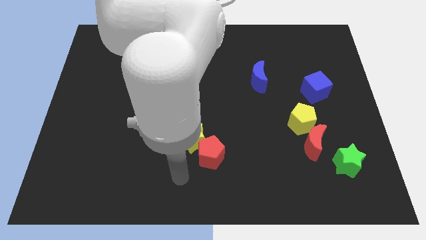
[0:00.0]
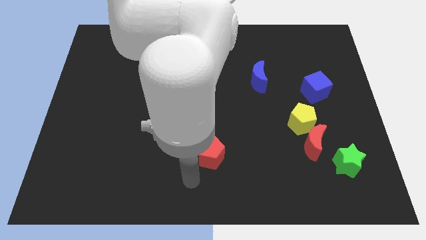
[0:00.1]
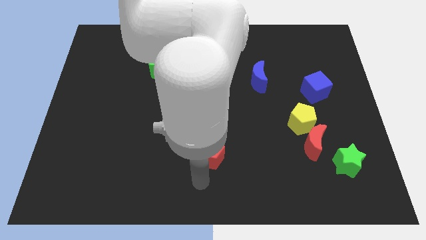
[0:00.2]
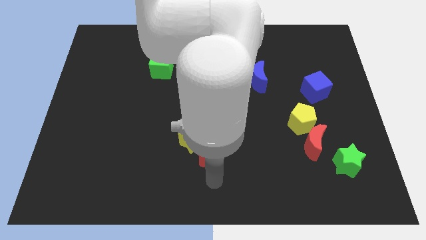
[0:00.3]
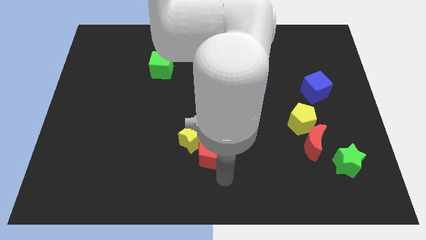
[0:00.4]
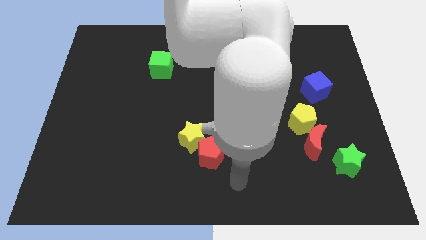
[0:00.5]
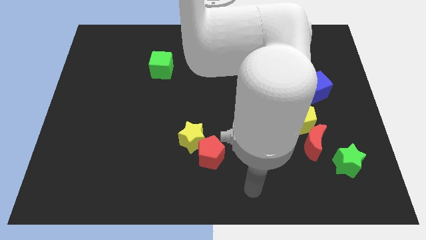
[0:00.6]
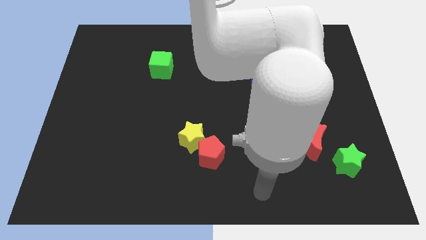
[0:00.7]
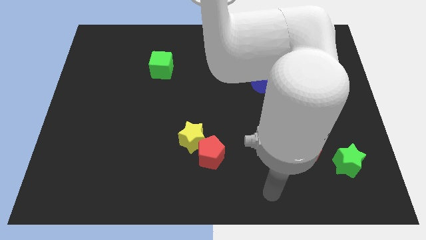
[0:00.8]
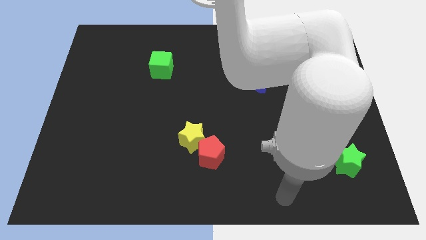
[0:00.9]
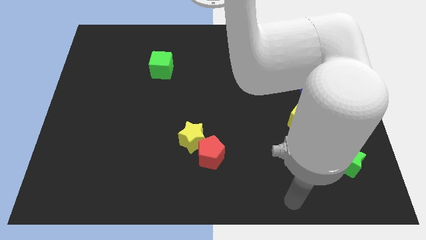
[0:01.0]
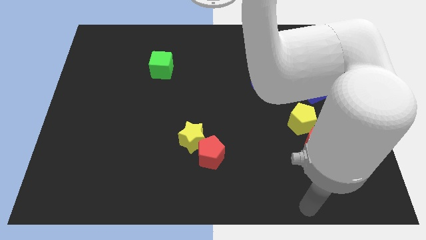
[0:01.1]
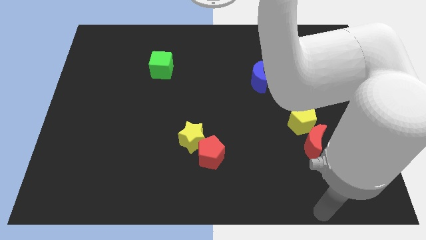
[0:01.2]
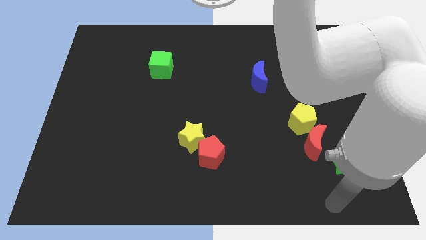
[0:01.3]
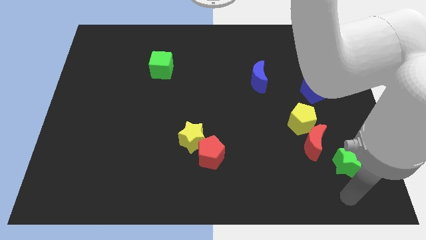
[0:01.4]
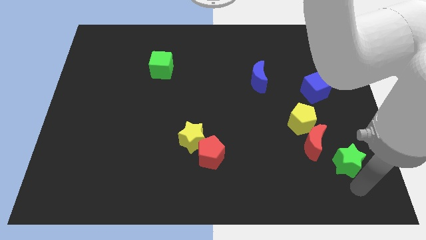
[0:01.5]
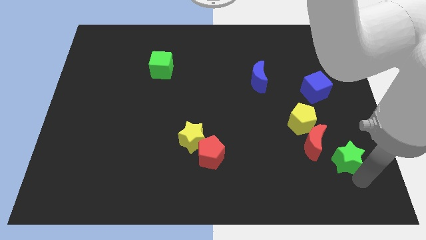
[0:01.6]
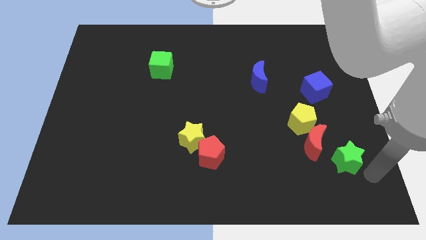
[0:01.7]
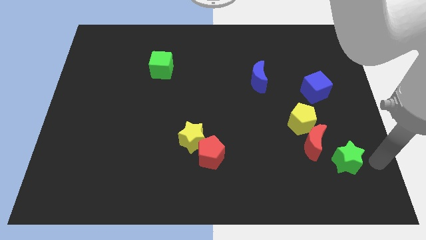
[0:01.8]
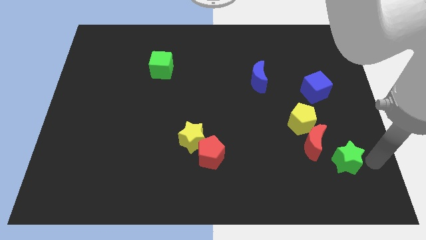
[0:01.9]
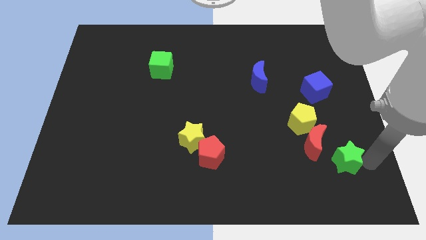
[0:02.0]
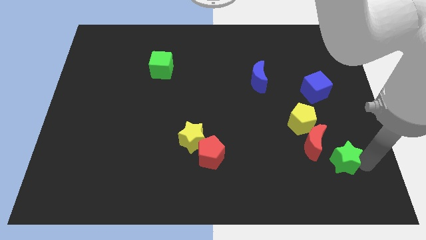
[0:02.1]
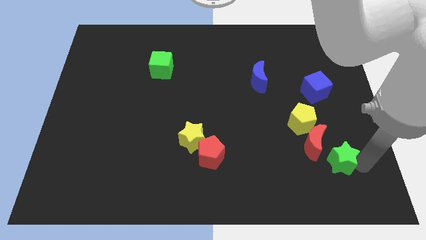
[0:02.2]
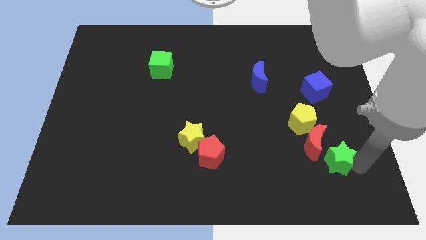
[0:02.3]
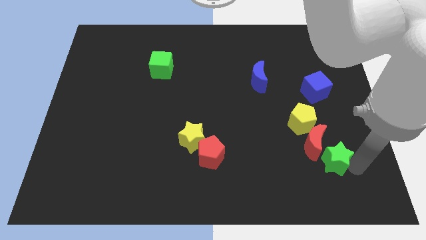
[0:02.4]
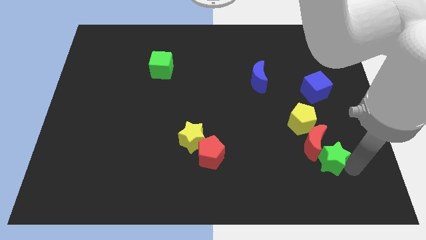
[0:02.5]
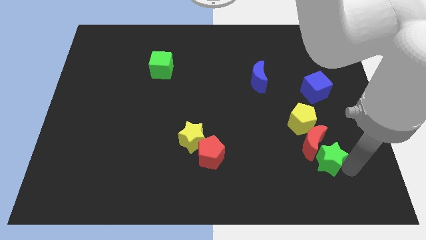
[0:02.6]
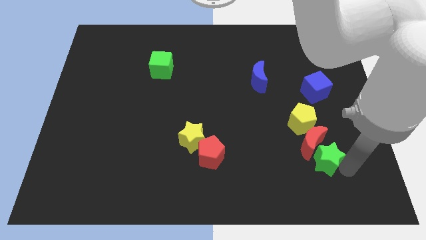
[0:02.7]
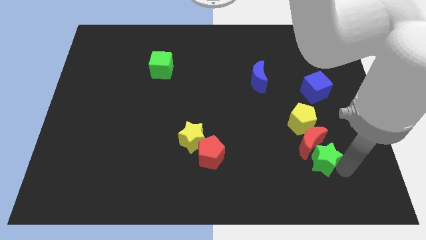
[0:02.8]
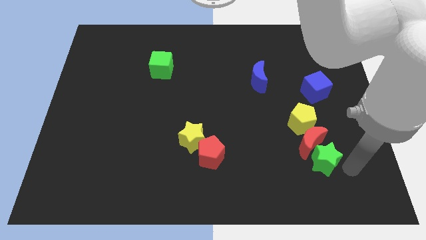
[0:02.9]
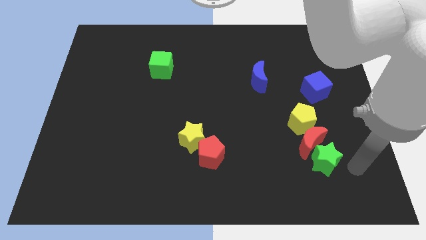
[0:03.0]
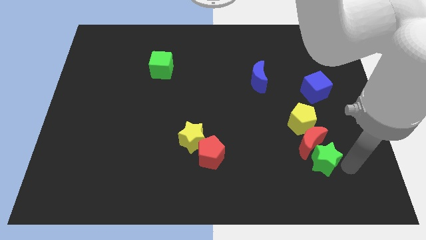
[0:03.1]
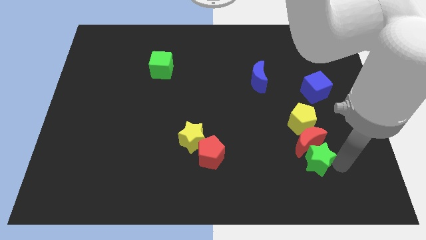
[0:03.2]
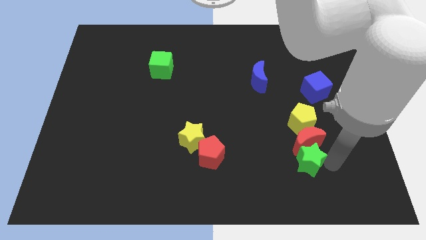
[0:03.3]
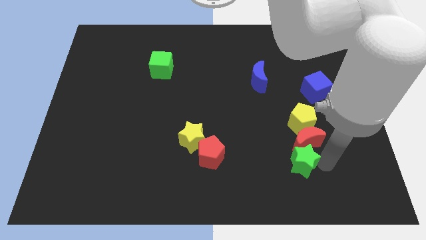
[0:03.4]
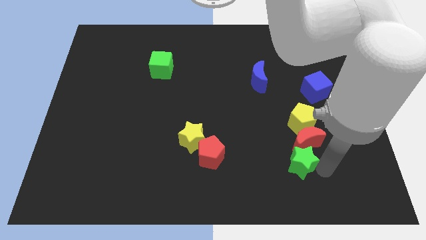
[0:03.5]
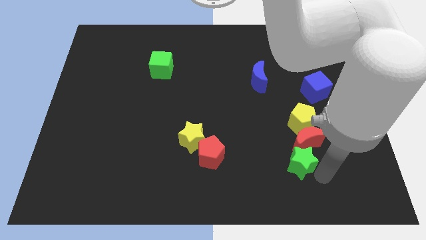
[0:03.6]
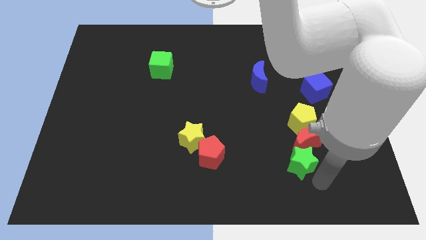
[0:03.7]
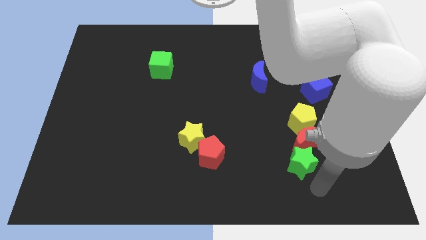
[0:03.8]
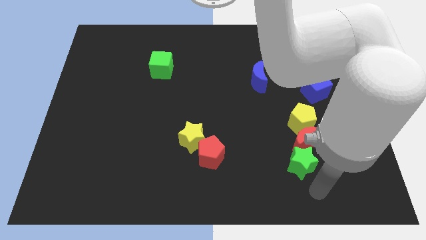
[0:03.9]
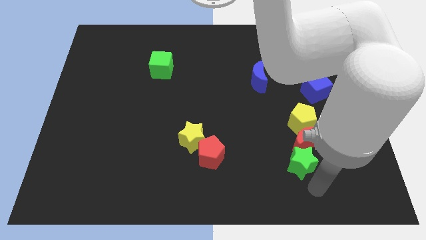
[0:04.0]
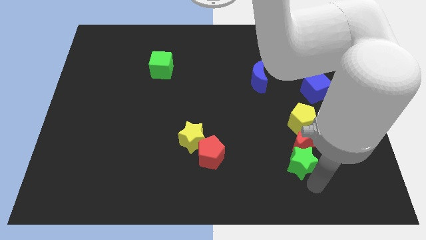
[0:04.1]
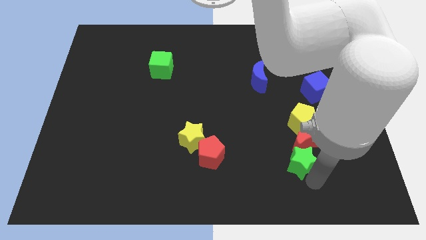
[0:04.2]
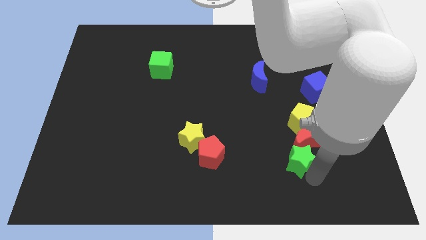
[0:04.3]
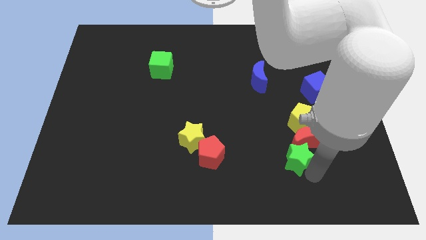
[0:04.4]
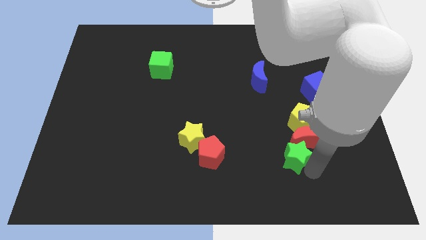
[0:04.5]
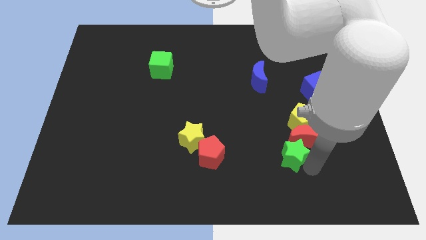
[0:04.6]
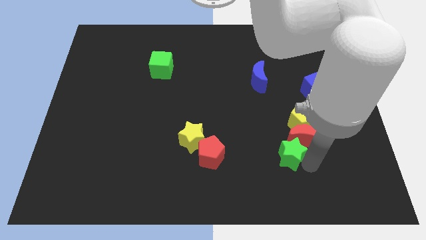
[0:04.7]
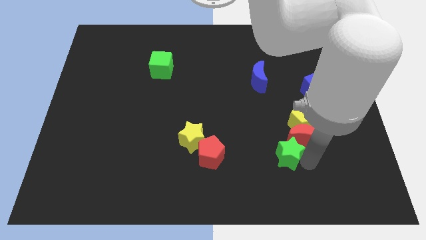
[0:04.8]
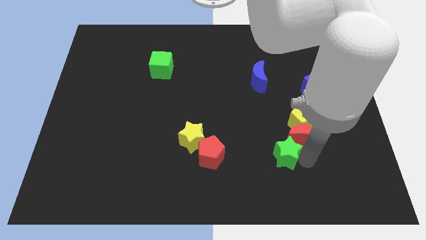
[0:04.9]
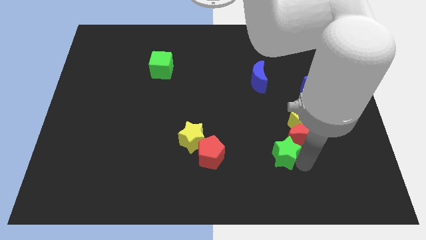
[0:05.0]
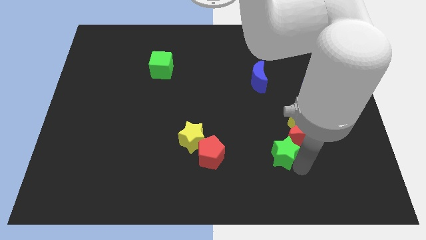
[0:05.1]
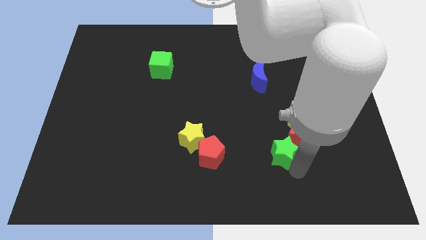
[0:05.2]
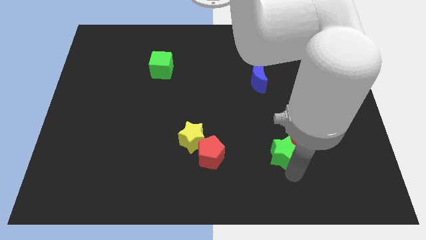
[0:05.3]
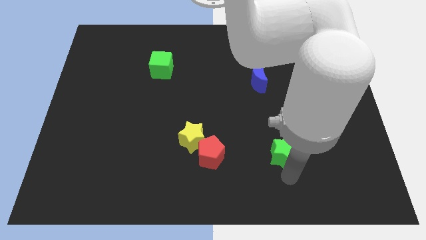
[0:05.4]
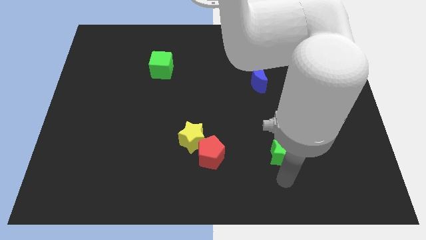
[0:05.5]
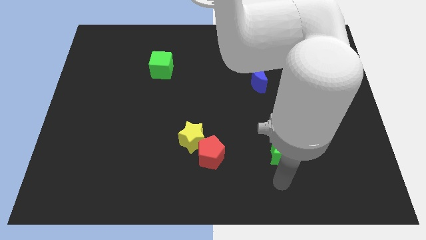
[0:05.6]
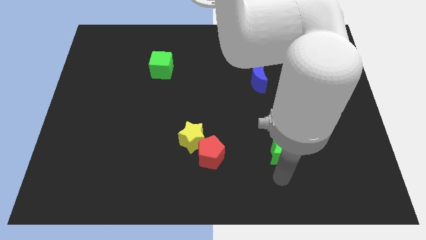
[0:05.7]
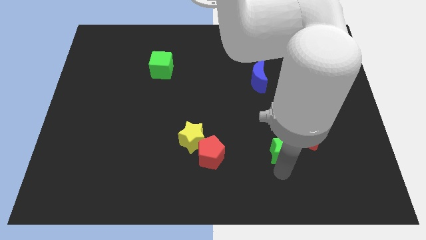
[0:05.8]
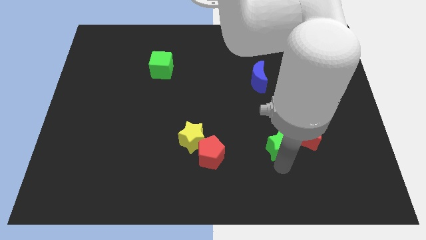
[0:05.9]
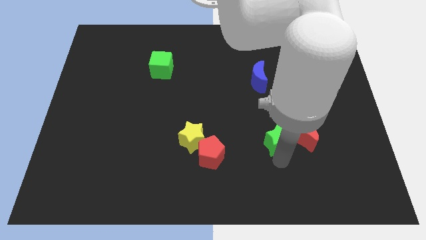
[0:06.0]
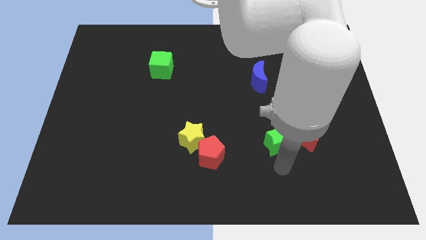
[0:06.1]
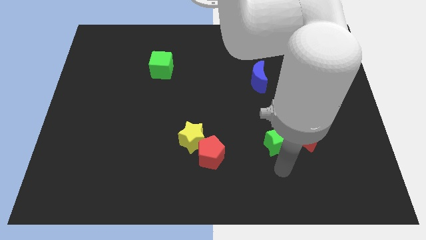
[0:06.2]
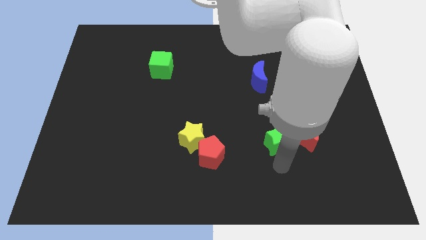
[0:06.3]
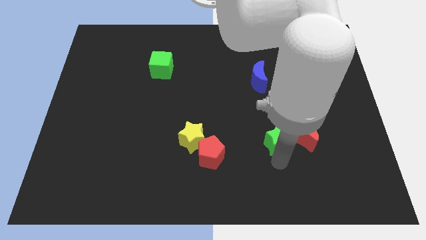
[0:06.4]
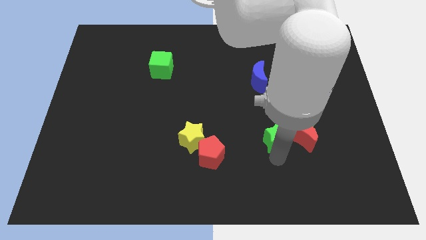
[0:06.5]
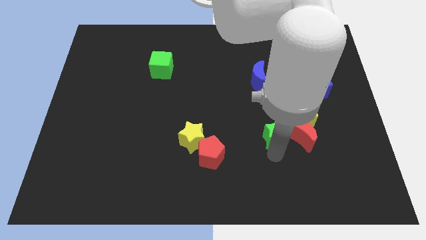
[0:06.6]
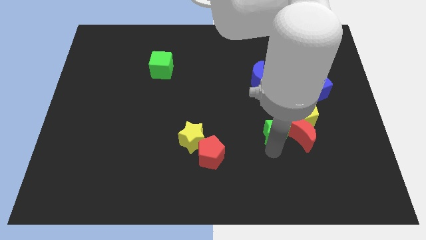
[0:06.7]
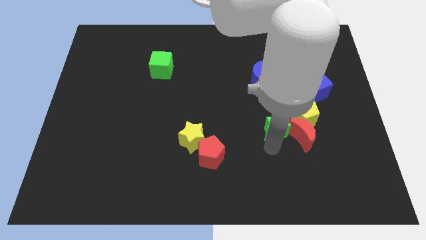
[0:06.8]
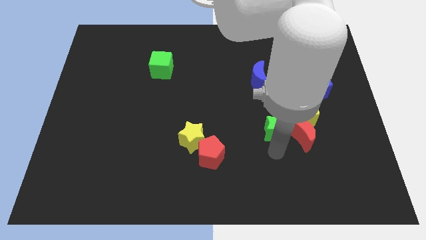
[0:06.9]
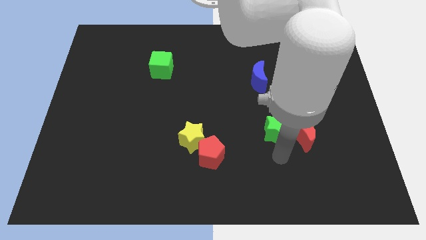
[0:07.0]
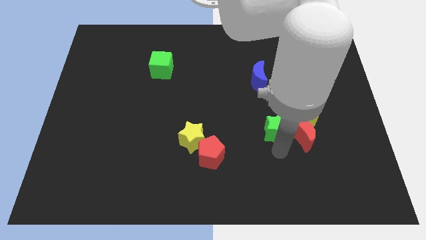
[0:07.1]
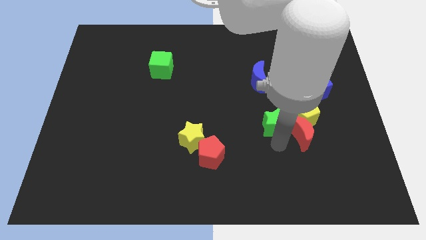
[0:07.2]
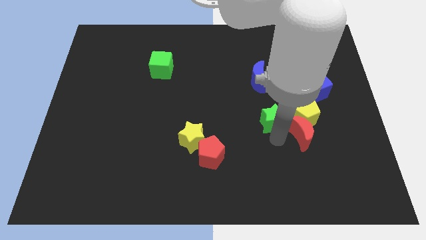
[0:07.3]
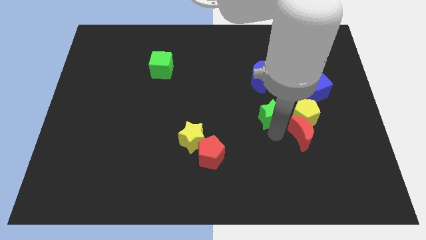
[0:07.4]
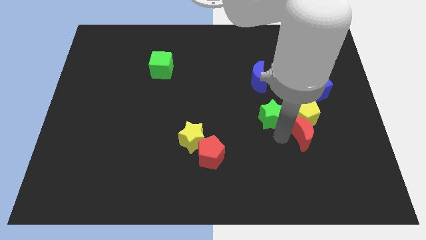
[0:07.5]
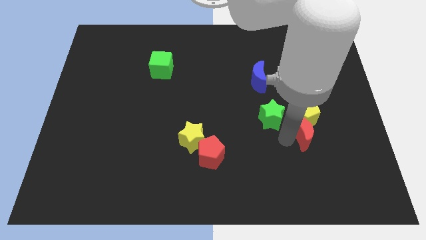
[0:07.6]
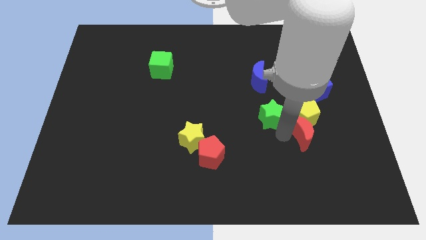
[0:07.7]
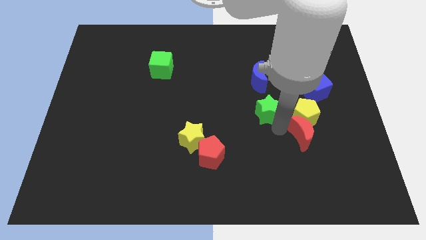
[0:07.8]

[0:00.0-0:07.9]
slide the green star diagonally up and left
